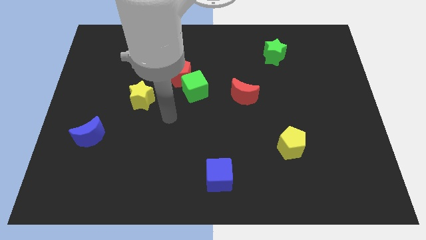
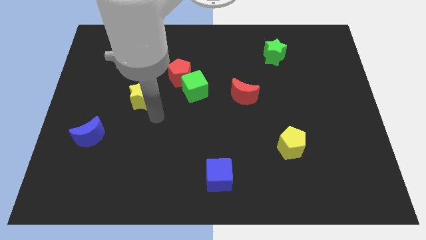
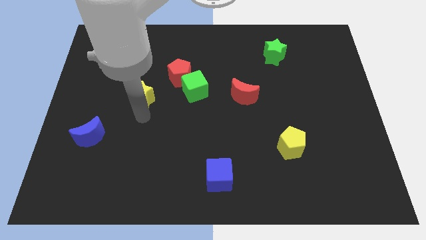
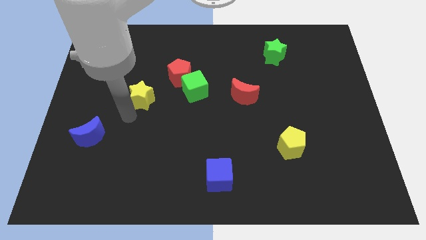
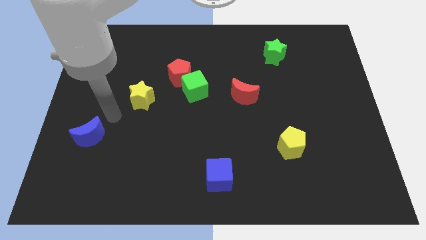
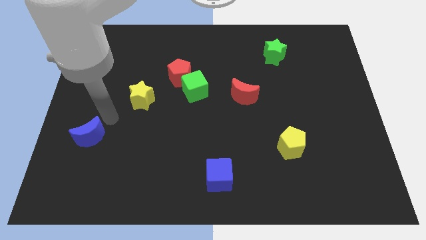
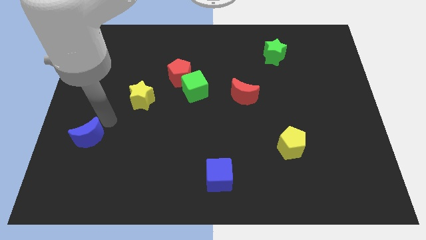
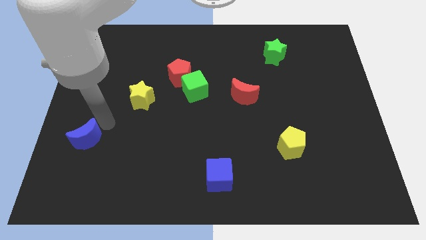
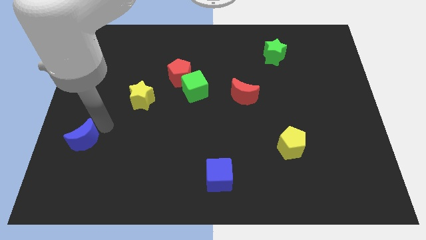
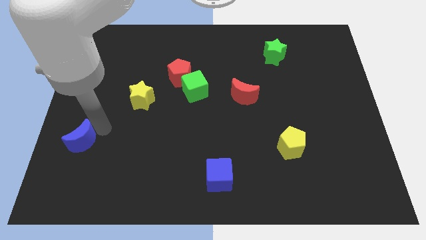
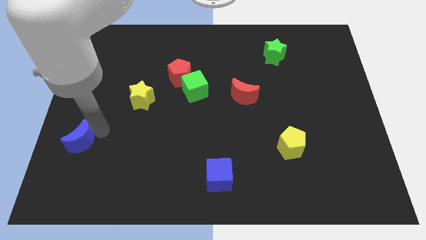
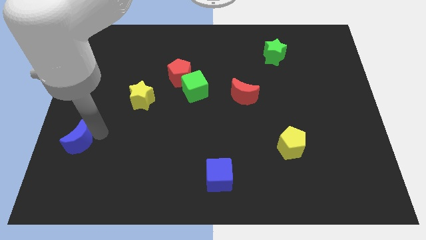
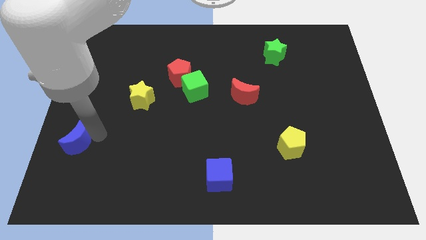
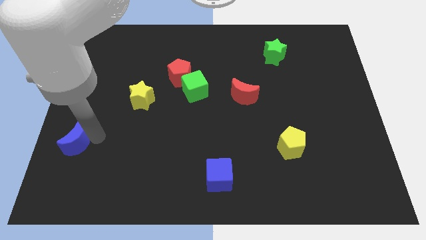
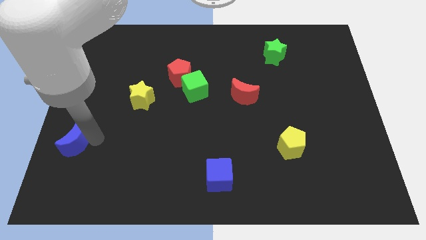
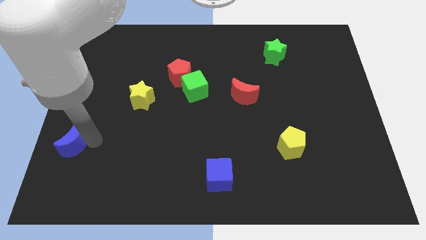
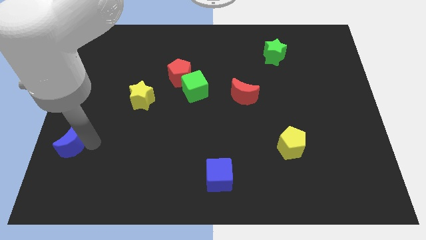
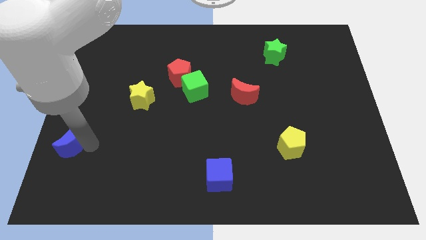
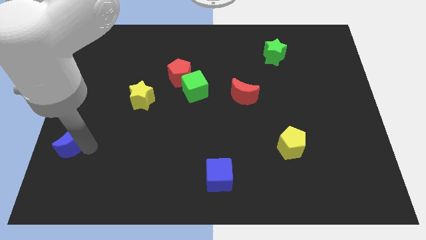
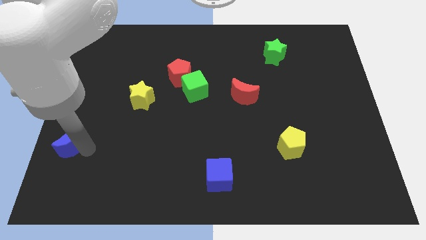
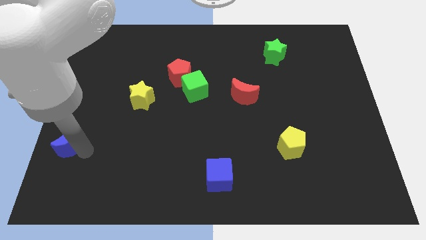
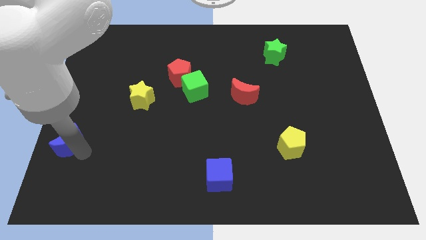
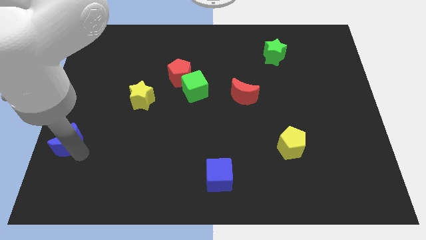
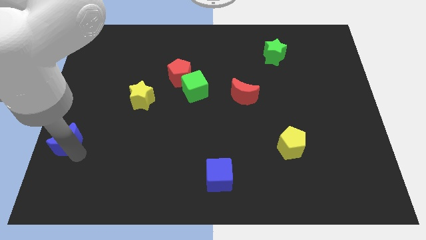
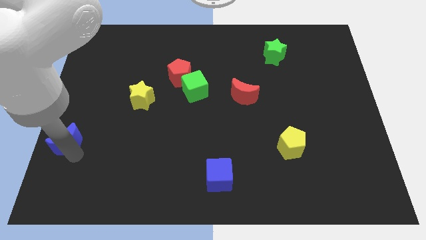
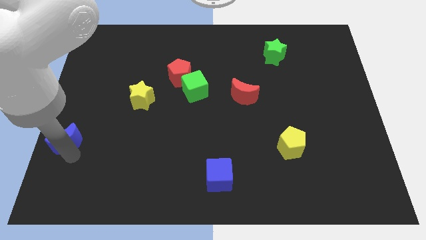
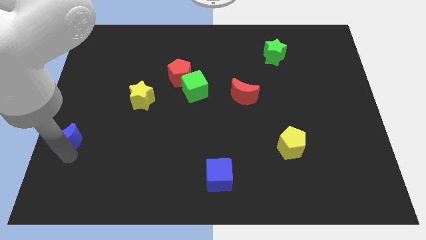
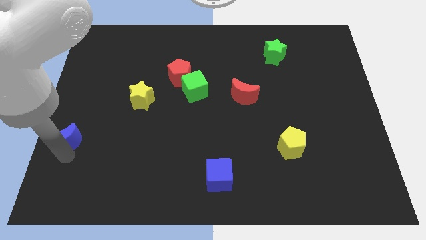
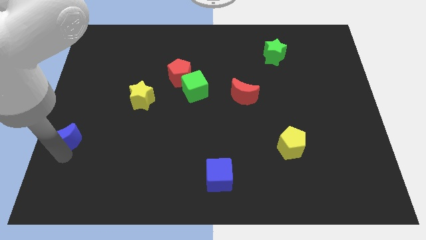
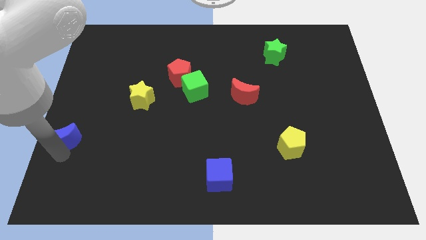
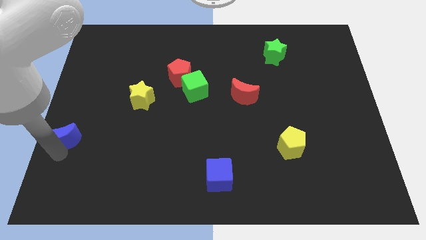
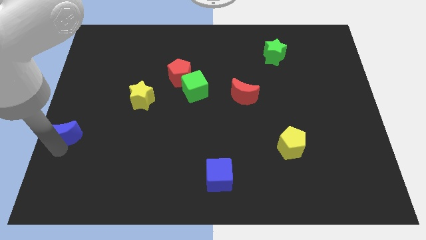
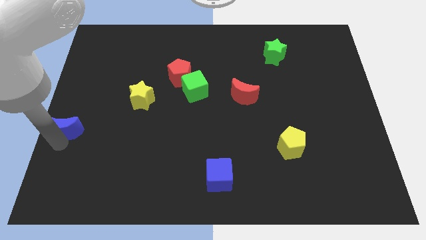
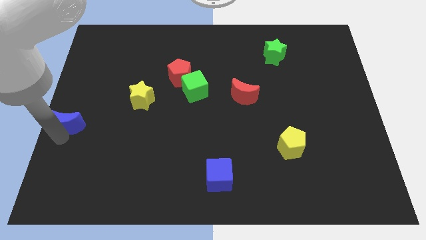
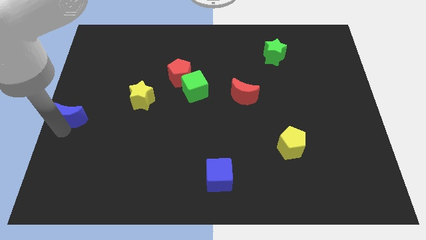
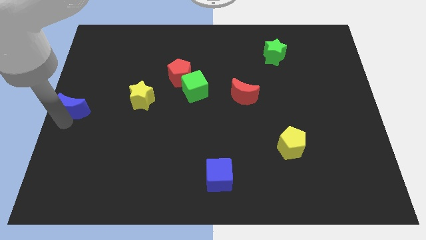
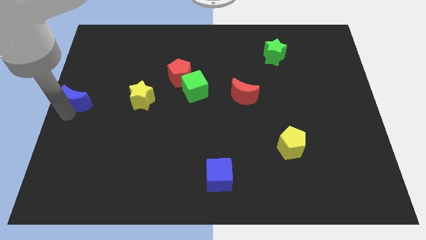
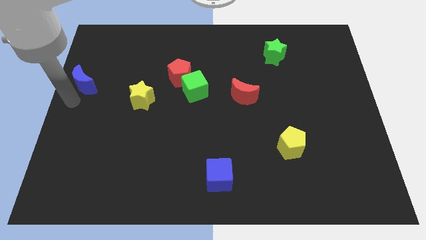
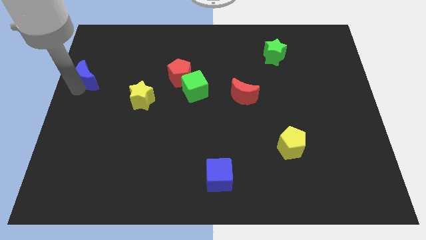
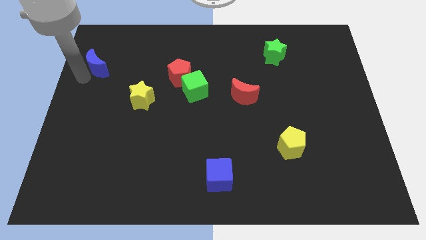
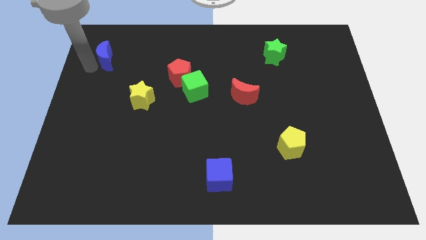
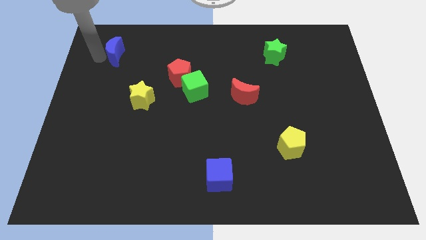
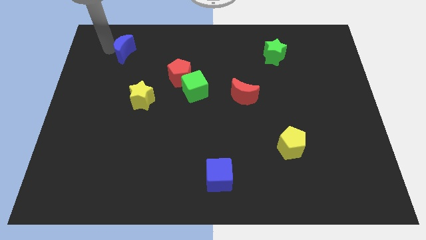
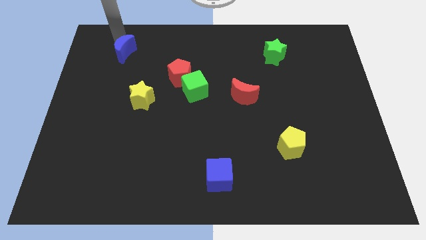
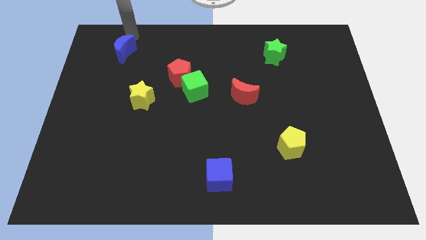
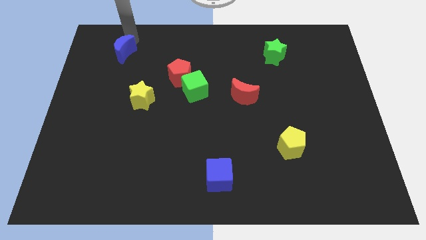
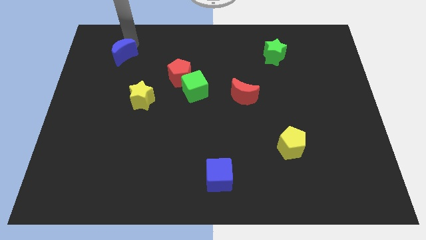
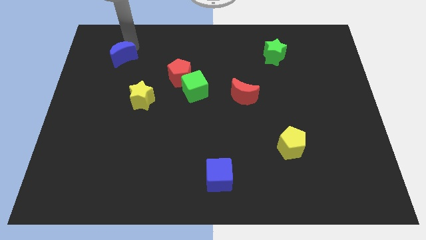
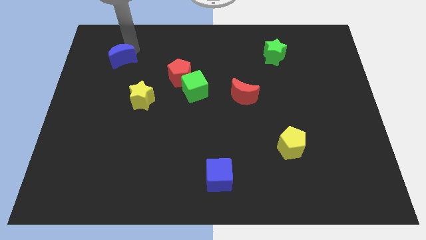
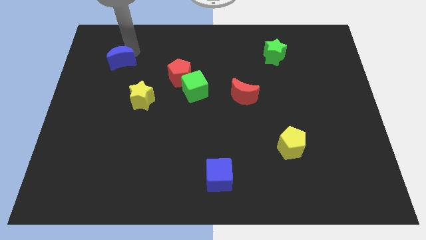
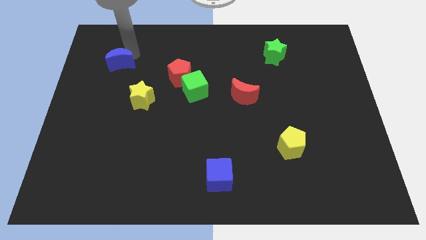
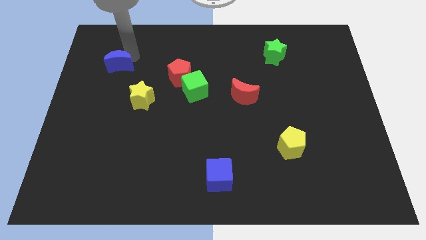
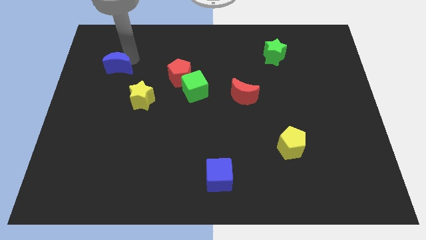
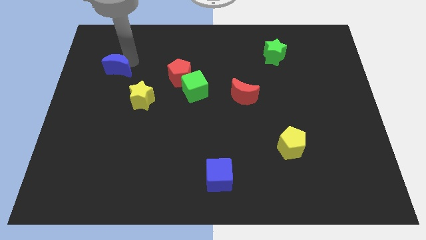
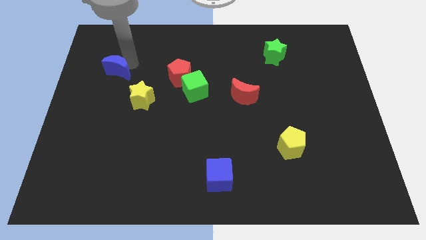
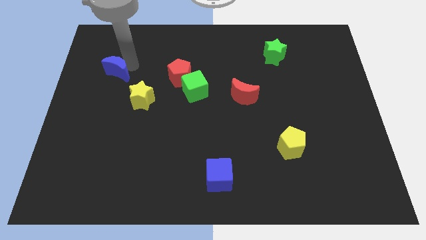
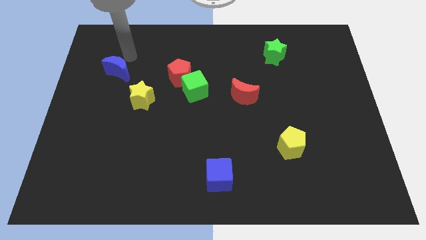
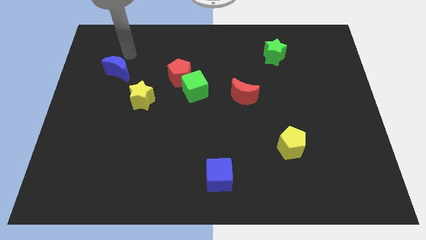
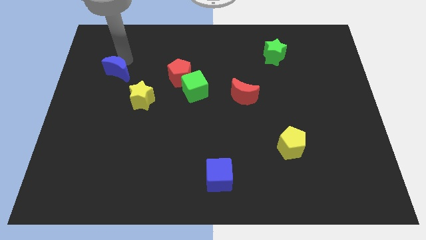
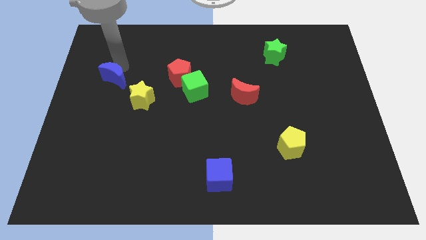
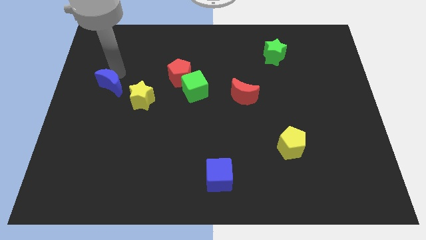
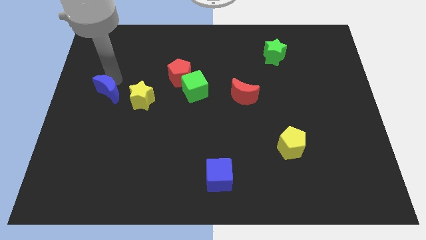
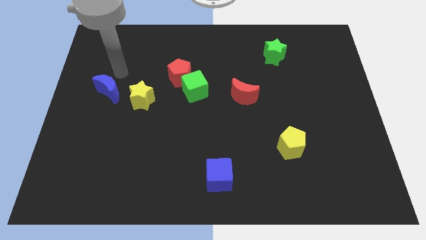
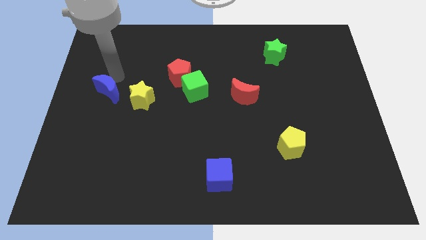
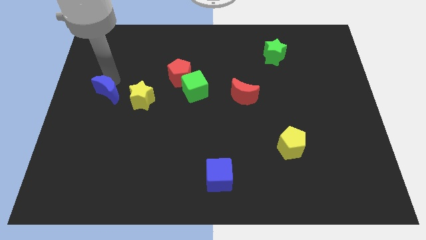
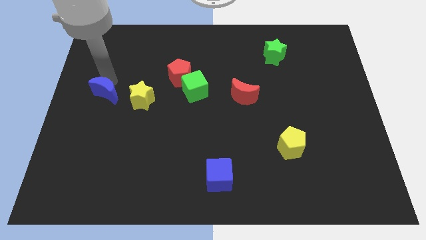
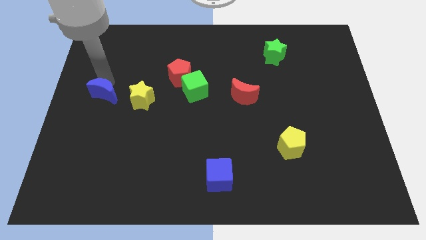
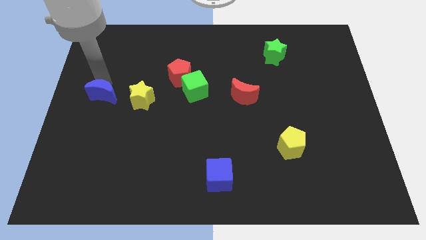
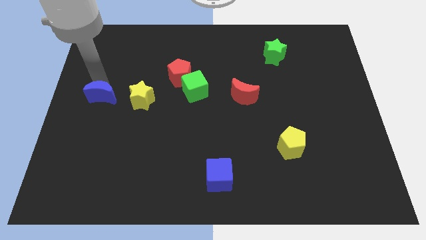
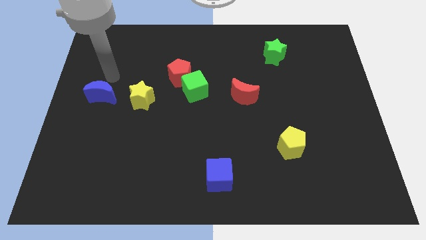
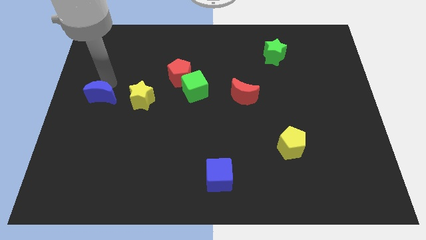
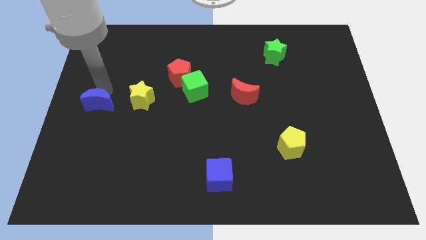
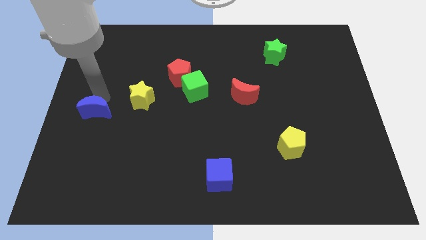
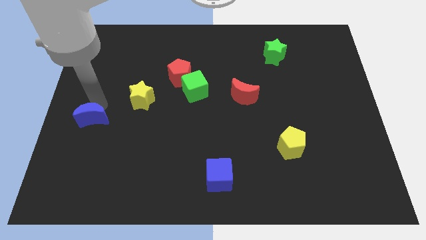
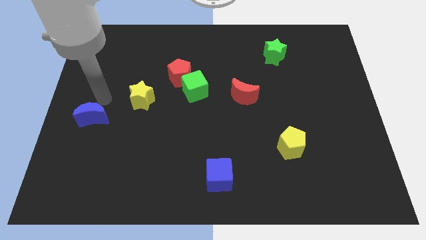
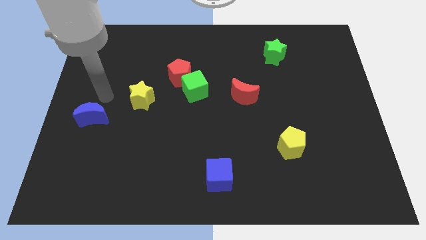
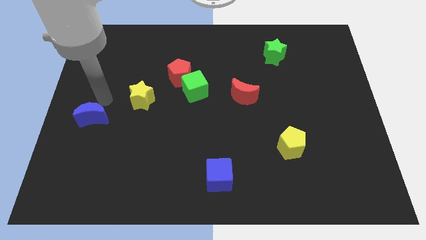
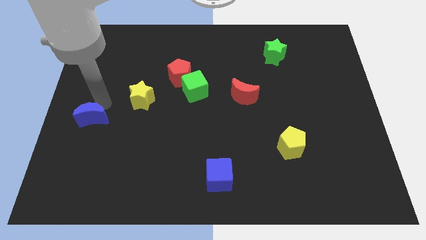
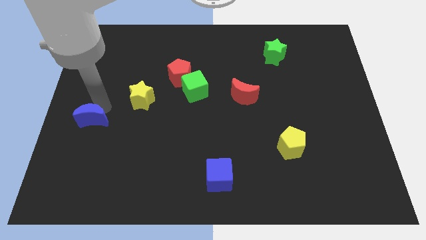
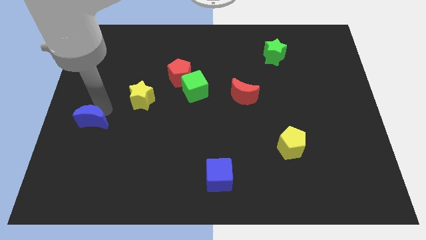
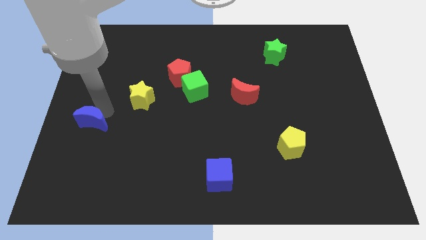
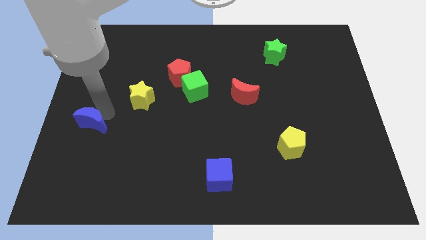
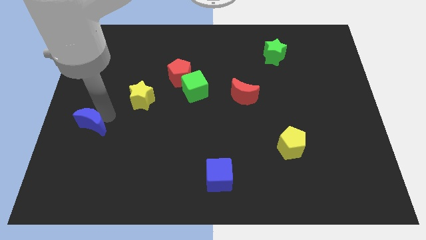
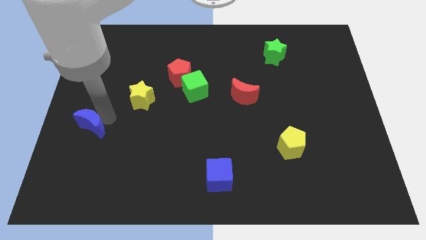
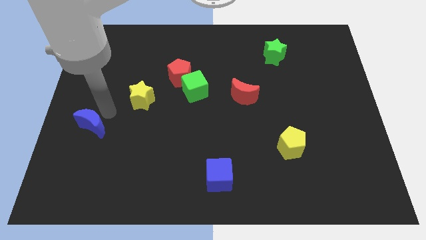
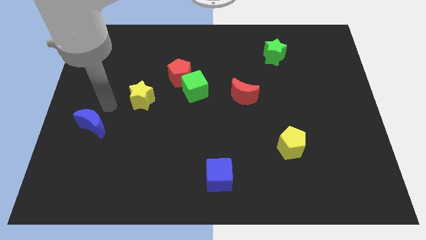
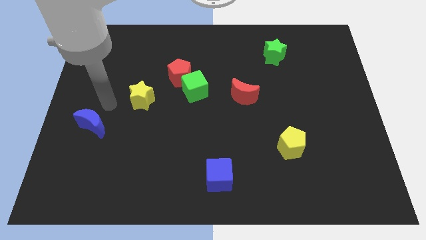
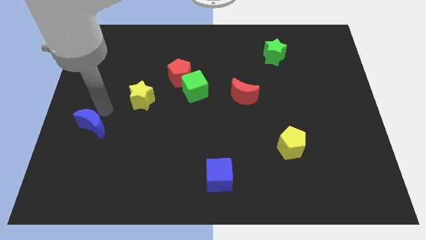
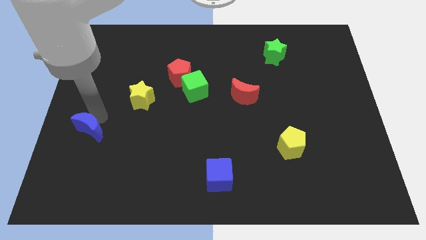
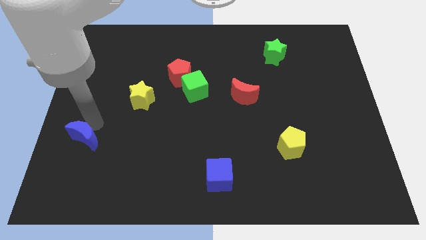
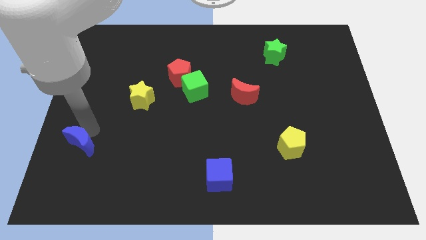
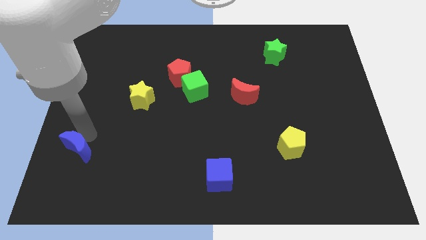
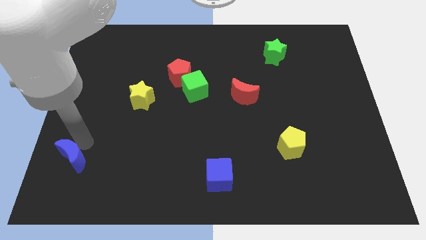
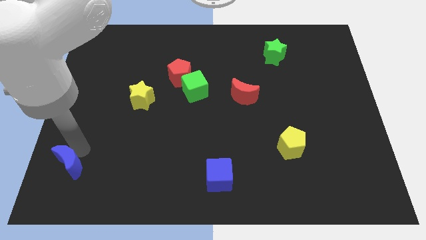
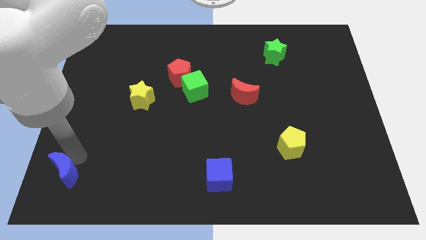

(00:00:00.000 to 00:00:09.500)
push the blue moon to the lower left corner
